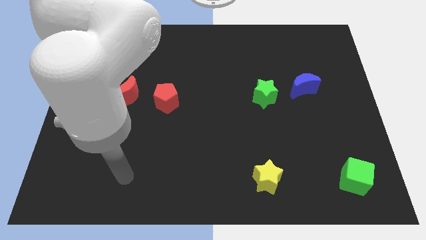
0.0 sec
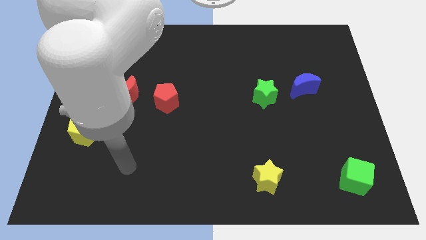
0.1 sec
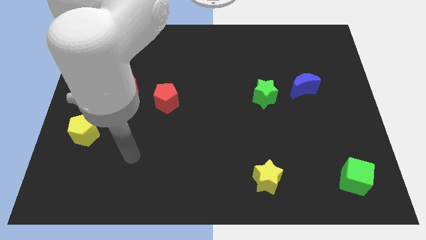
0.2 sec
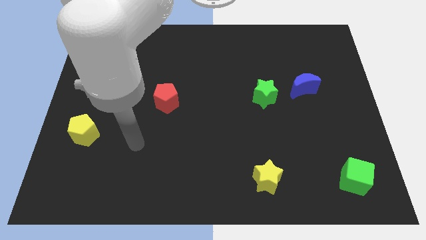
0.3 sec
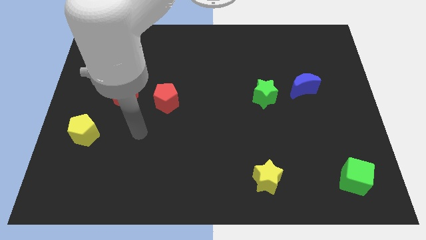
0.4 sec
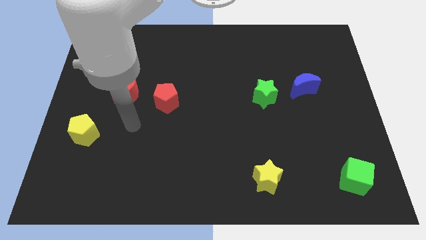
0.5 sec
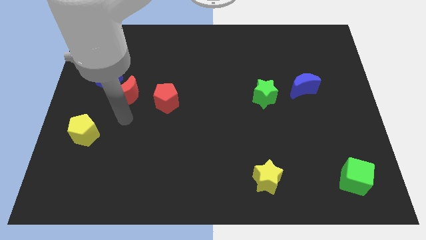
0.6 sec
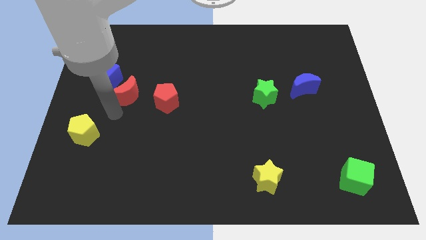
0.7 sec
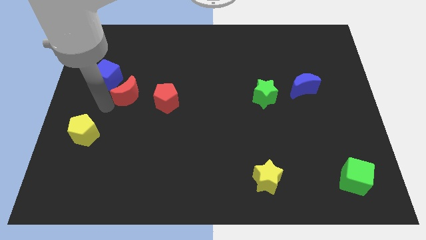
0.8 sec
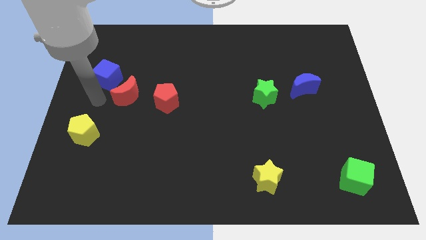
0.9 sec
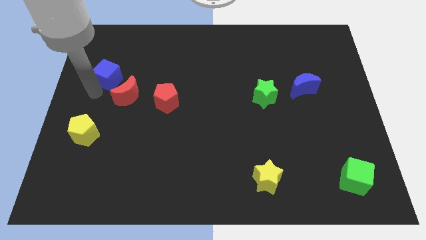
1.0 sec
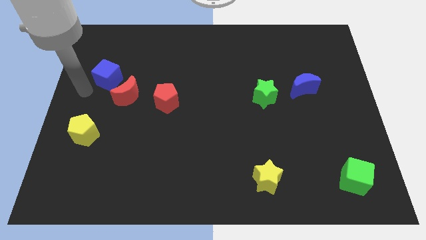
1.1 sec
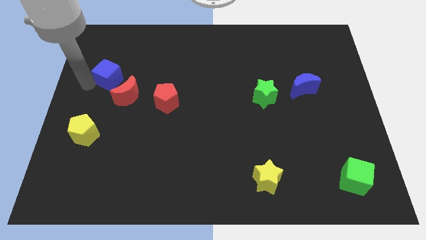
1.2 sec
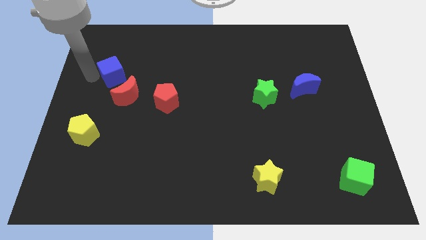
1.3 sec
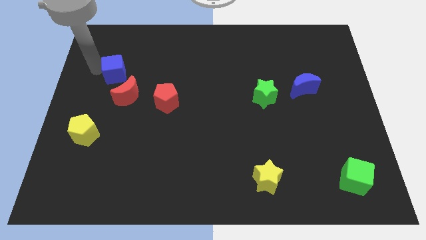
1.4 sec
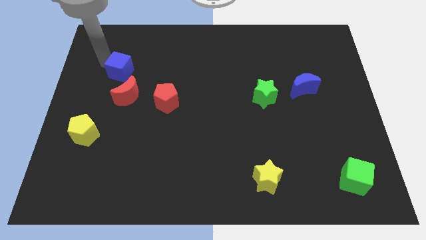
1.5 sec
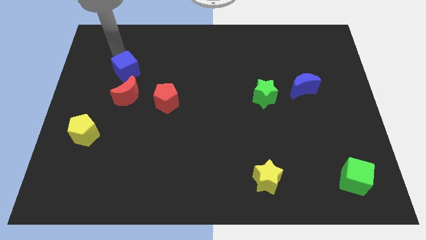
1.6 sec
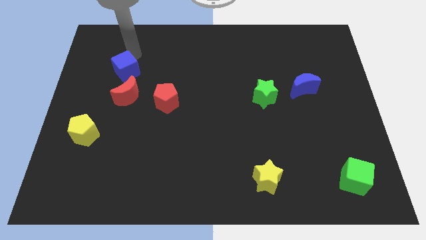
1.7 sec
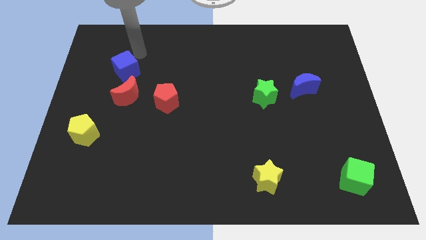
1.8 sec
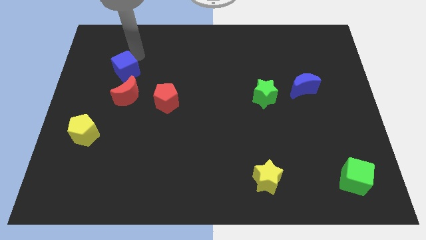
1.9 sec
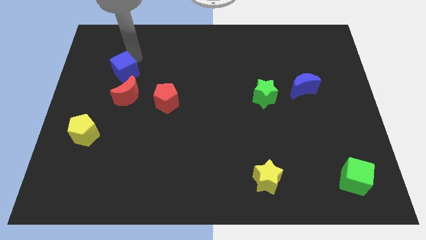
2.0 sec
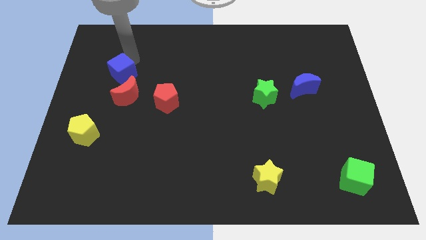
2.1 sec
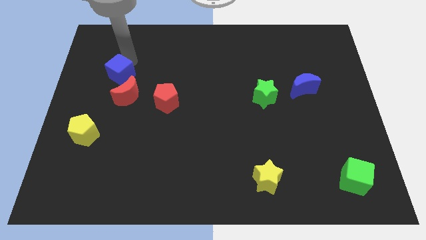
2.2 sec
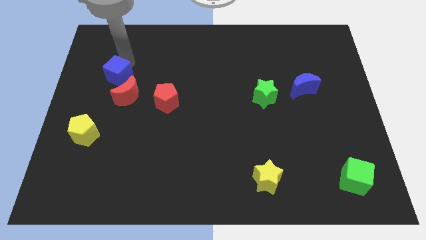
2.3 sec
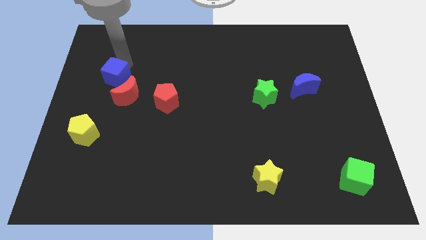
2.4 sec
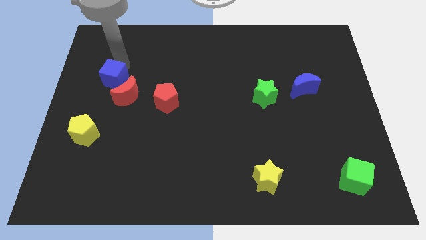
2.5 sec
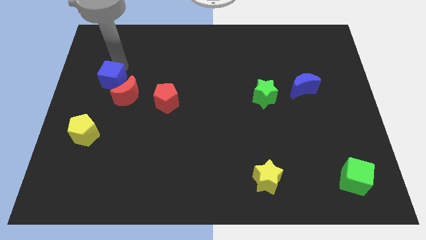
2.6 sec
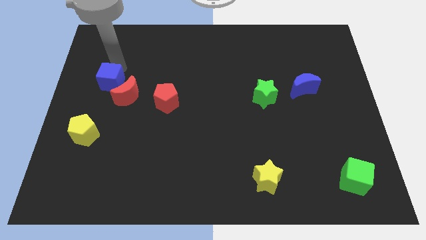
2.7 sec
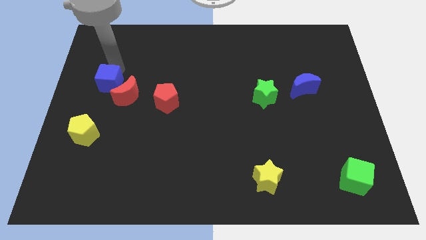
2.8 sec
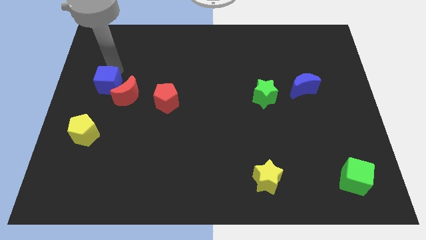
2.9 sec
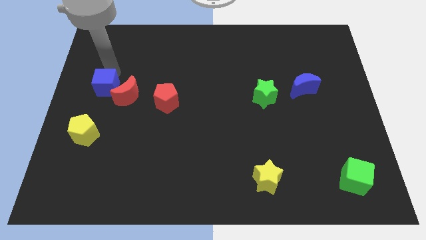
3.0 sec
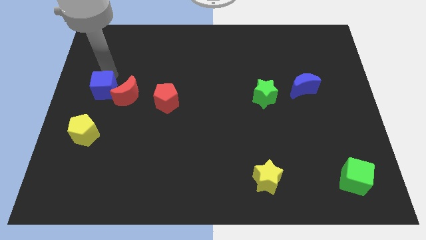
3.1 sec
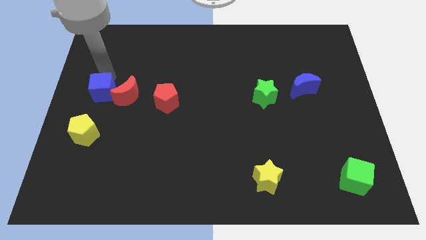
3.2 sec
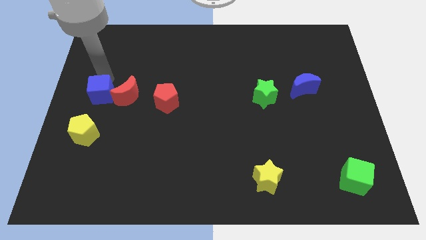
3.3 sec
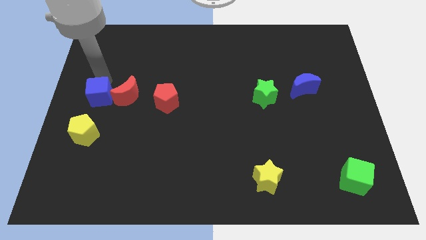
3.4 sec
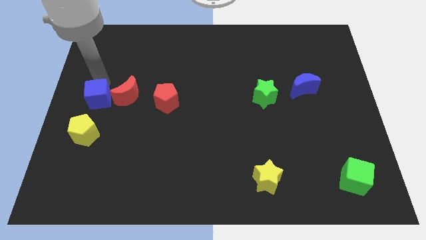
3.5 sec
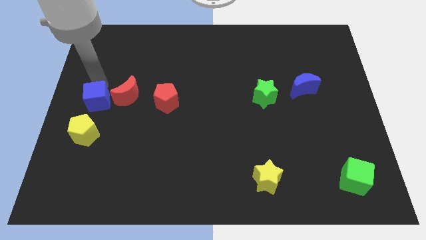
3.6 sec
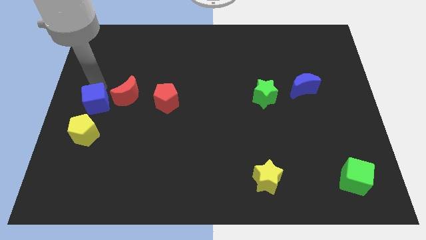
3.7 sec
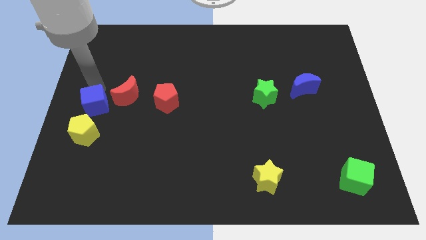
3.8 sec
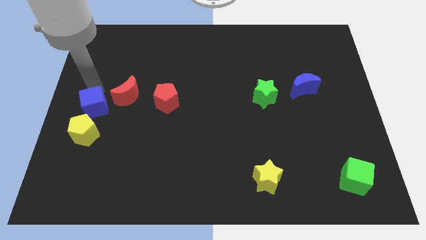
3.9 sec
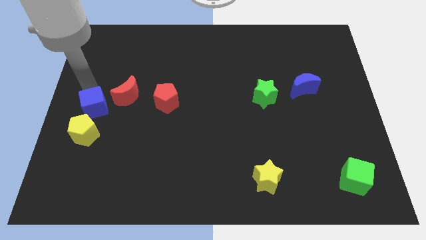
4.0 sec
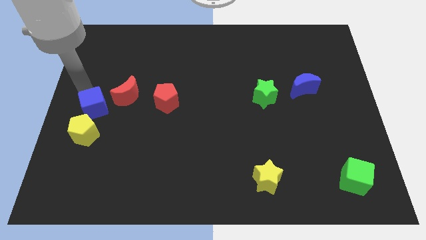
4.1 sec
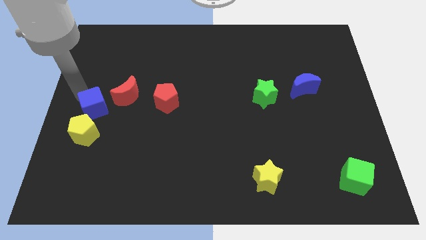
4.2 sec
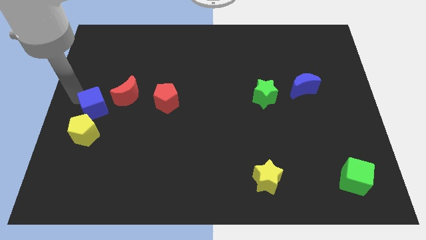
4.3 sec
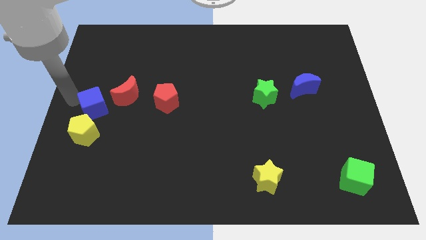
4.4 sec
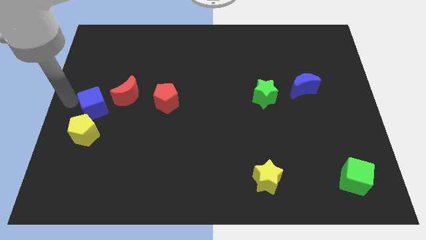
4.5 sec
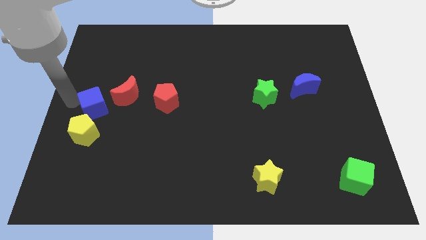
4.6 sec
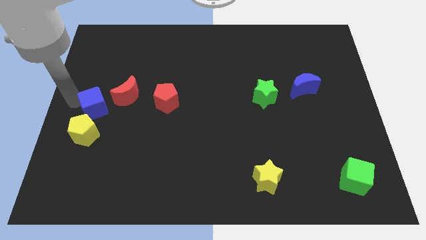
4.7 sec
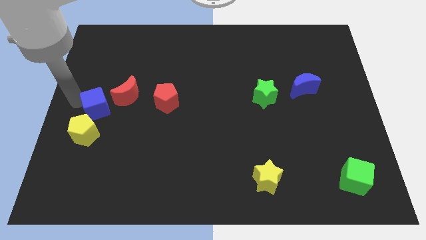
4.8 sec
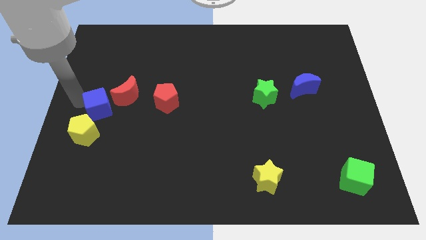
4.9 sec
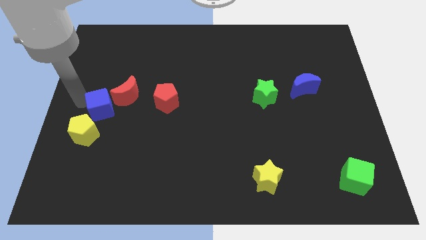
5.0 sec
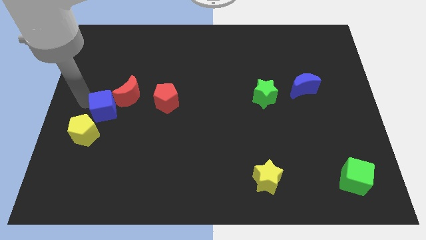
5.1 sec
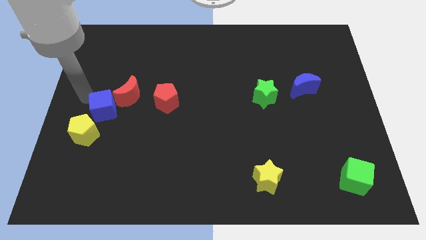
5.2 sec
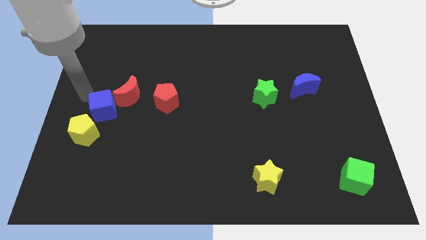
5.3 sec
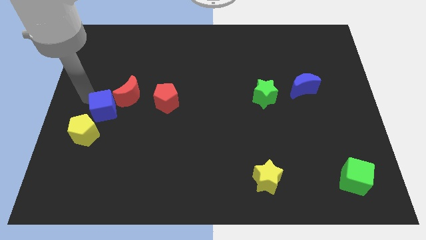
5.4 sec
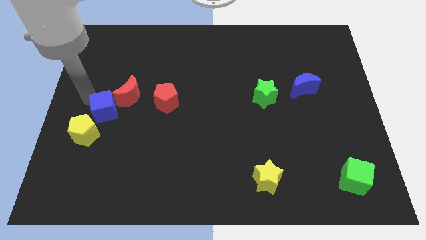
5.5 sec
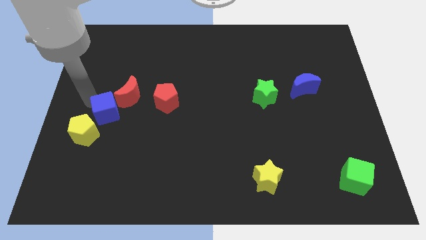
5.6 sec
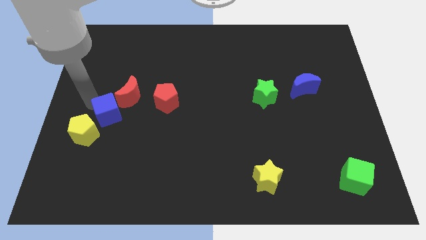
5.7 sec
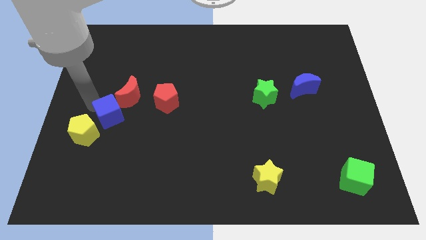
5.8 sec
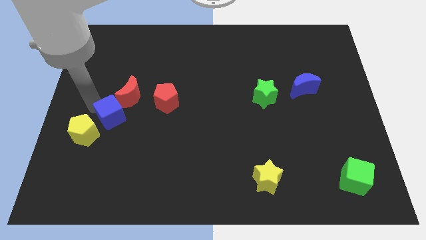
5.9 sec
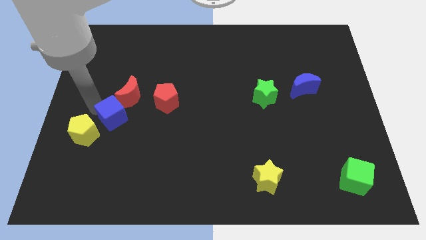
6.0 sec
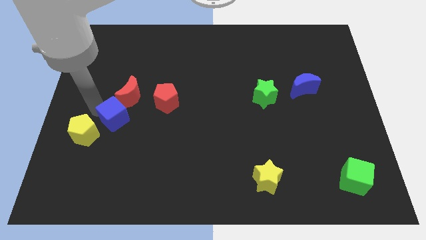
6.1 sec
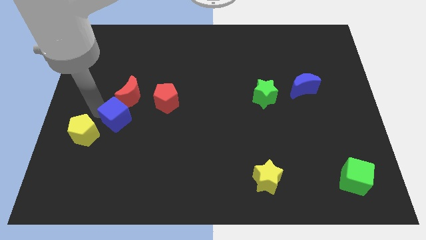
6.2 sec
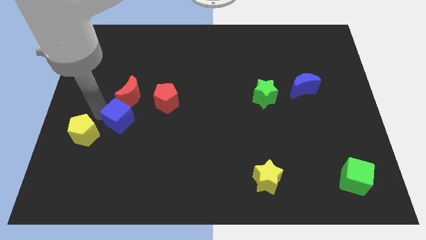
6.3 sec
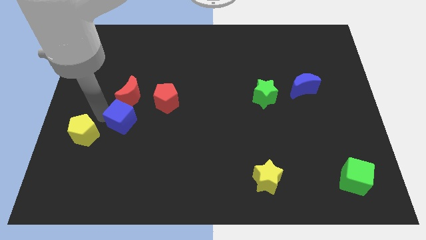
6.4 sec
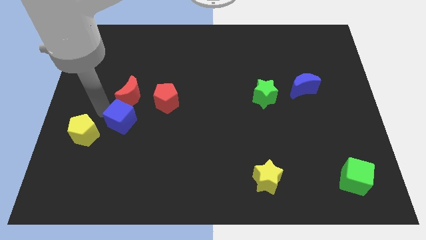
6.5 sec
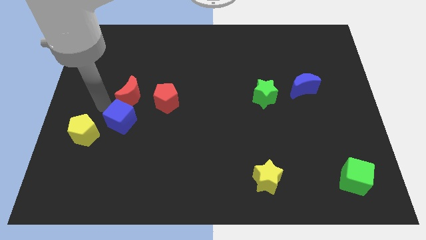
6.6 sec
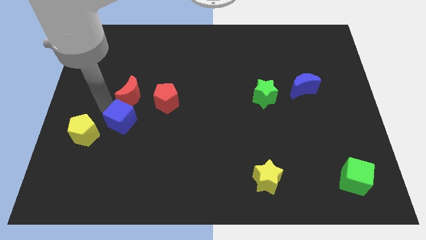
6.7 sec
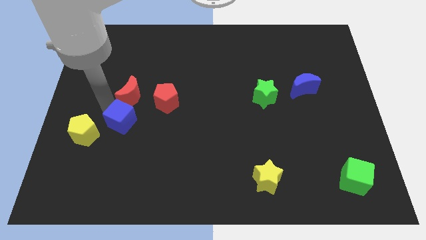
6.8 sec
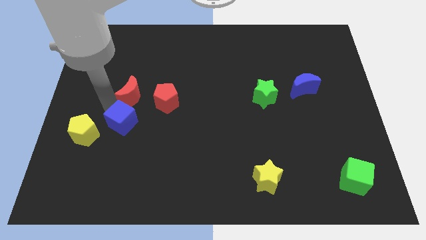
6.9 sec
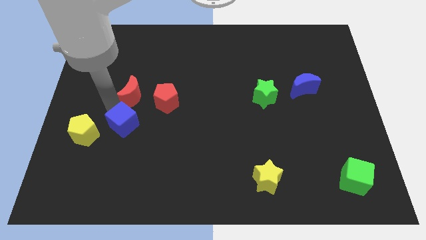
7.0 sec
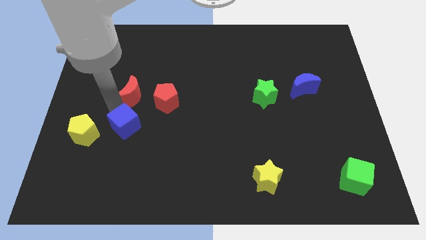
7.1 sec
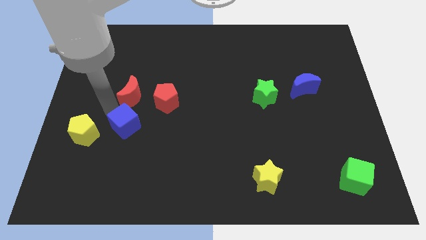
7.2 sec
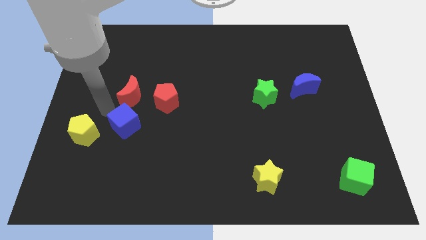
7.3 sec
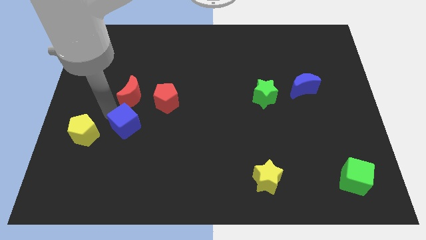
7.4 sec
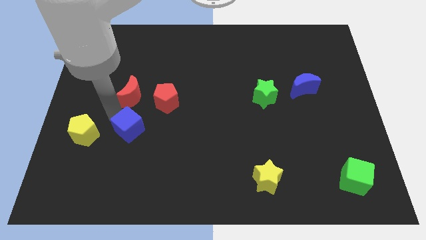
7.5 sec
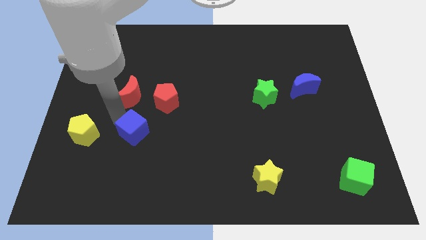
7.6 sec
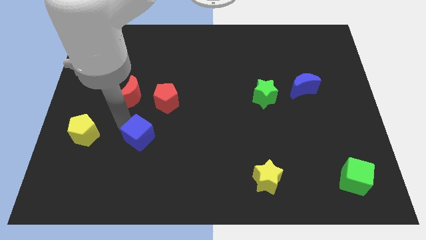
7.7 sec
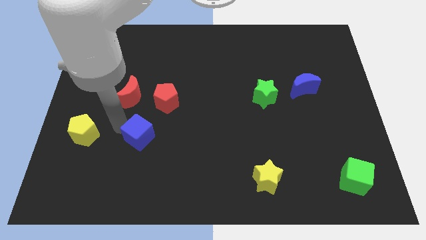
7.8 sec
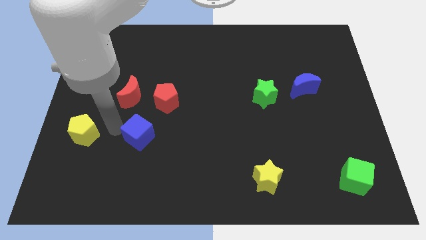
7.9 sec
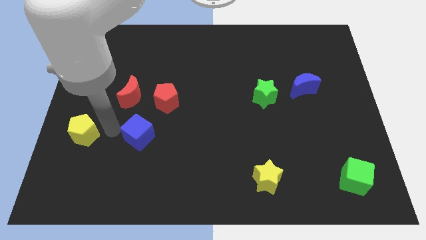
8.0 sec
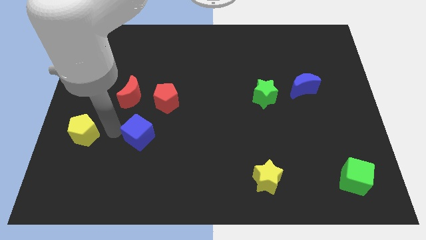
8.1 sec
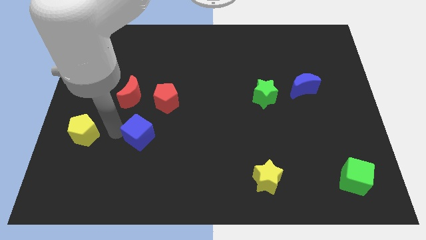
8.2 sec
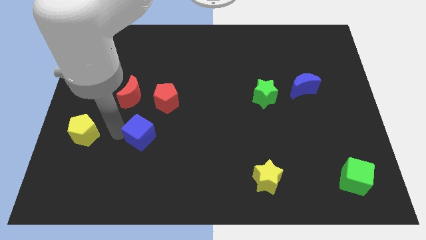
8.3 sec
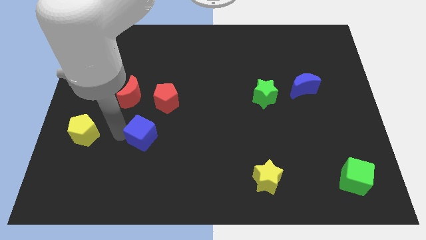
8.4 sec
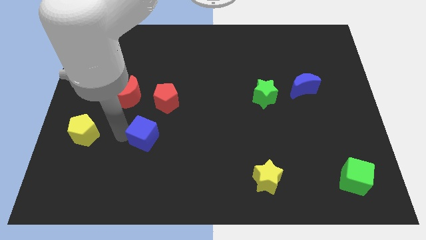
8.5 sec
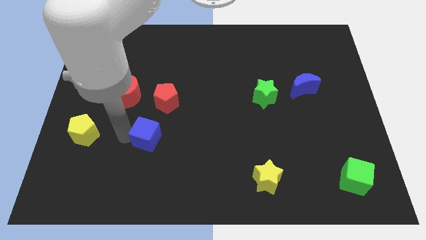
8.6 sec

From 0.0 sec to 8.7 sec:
push the blue cube diagonally downwards and to the right
